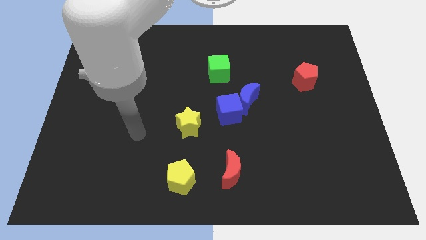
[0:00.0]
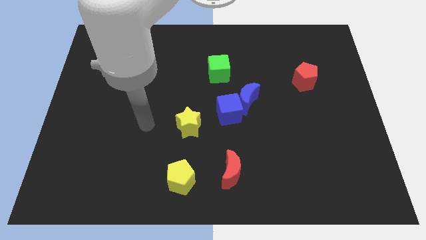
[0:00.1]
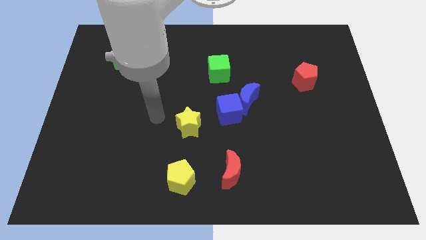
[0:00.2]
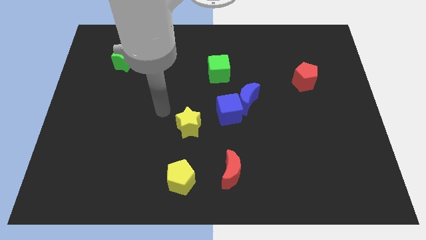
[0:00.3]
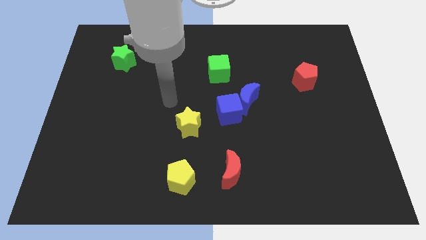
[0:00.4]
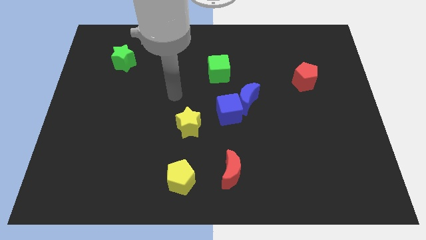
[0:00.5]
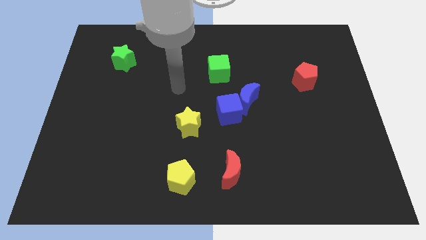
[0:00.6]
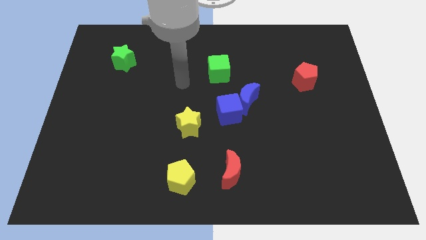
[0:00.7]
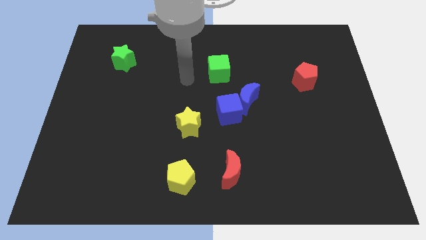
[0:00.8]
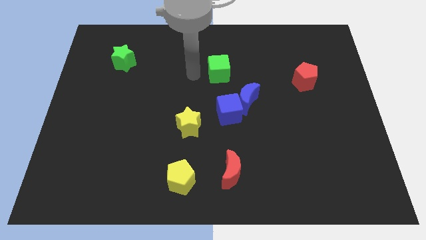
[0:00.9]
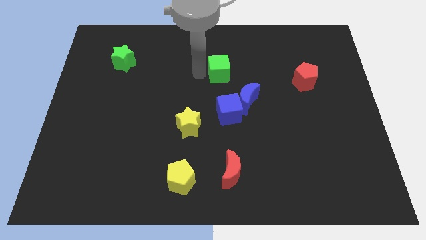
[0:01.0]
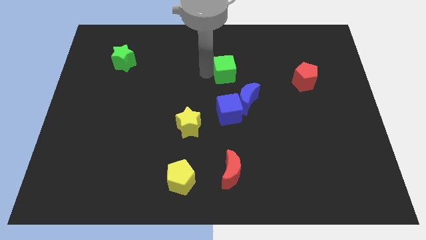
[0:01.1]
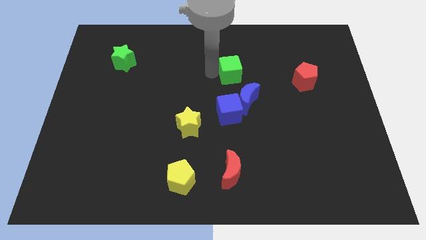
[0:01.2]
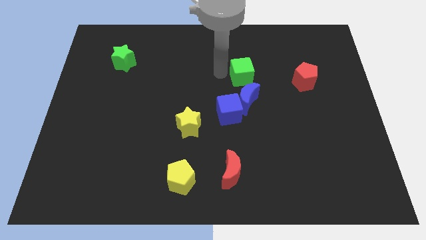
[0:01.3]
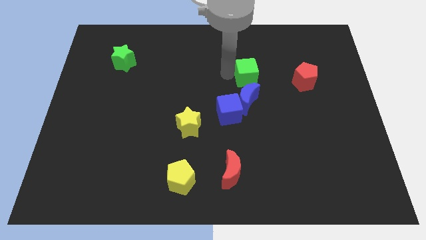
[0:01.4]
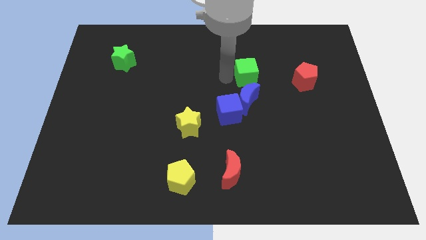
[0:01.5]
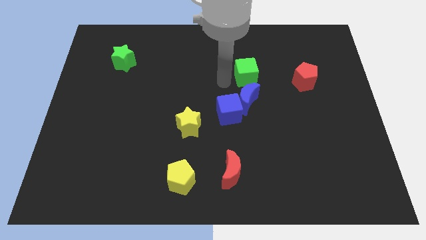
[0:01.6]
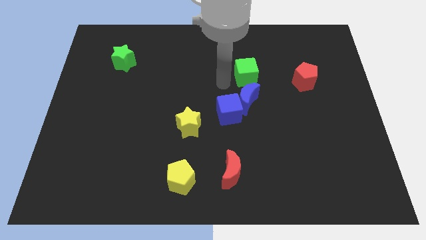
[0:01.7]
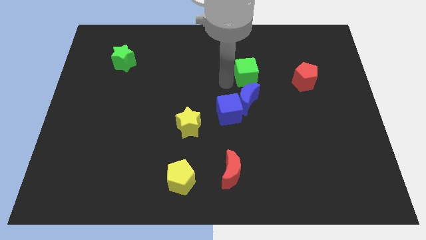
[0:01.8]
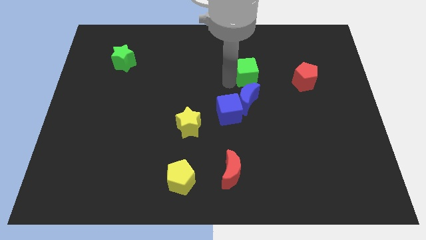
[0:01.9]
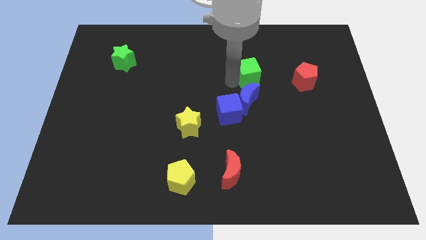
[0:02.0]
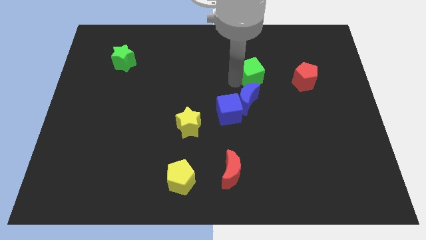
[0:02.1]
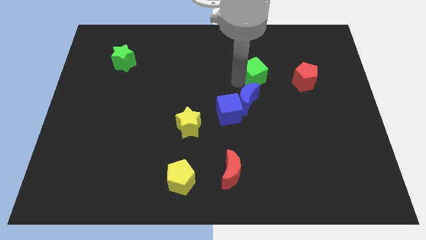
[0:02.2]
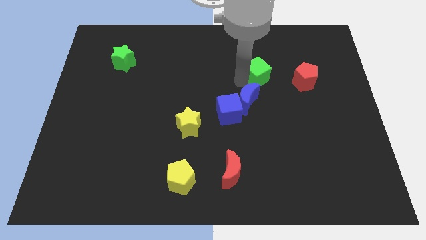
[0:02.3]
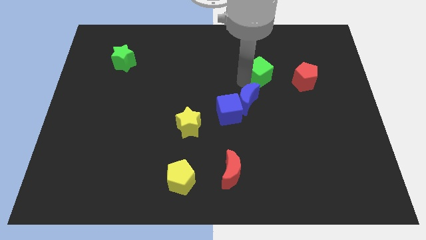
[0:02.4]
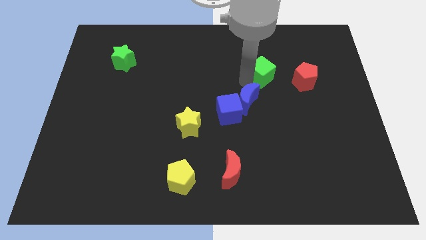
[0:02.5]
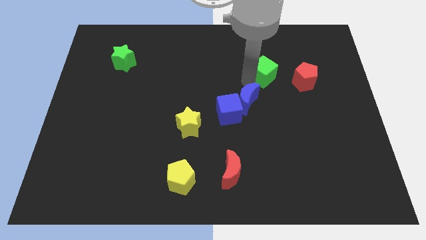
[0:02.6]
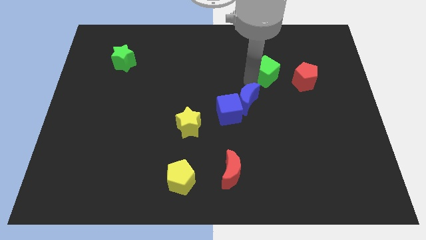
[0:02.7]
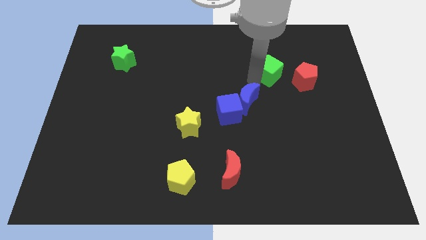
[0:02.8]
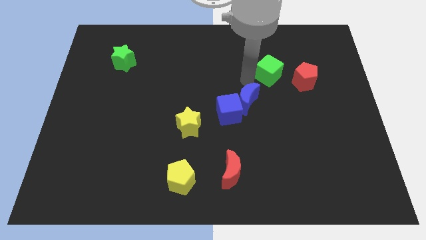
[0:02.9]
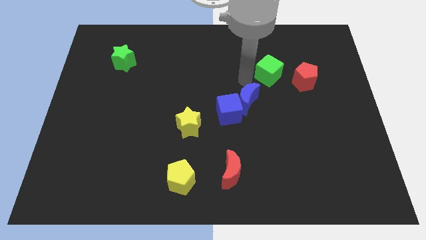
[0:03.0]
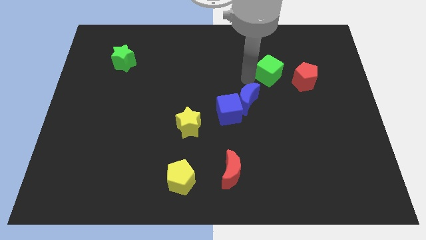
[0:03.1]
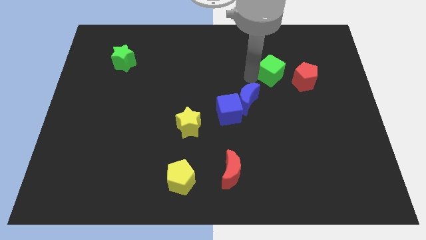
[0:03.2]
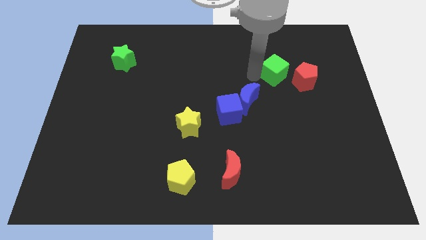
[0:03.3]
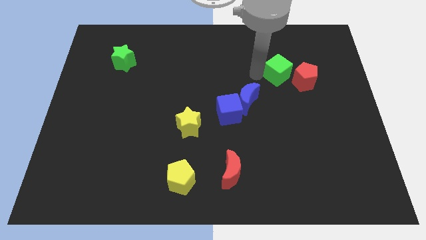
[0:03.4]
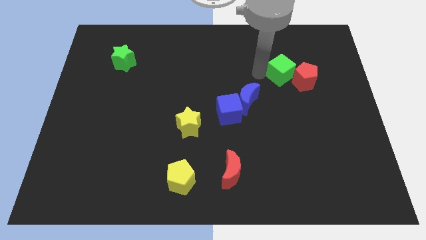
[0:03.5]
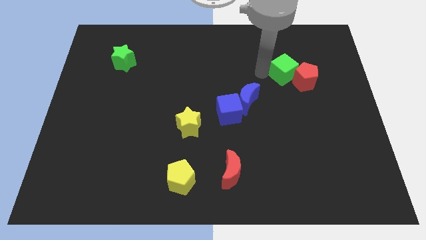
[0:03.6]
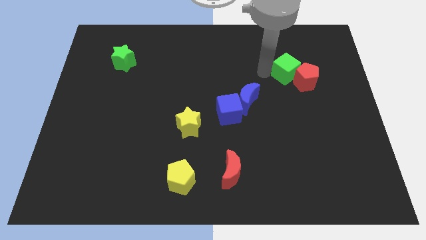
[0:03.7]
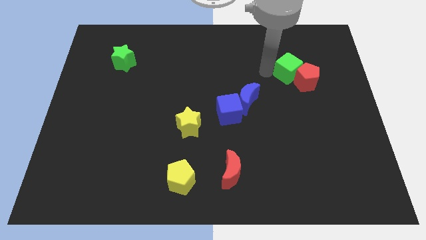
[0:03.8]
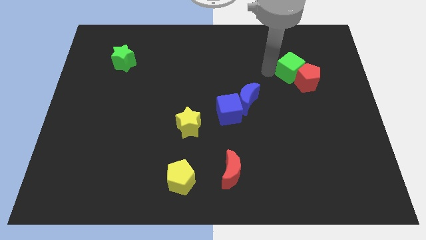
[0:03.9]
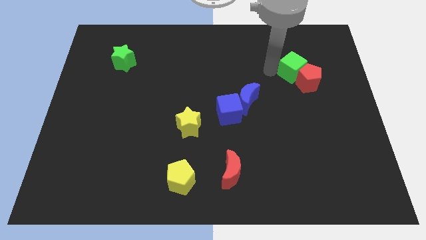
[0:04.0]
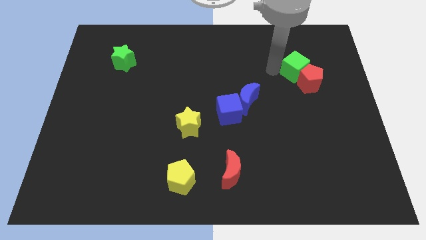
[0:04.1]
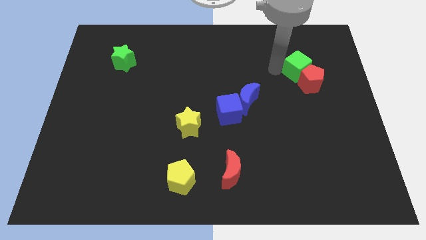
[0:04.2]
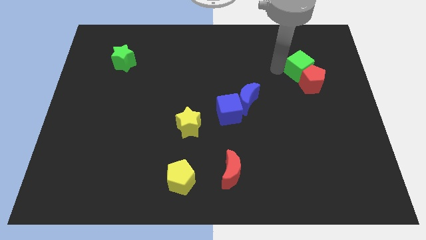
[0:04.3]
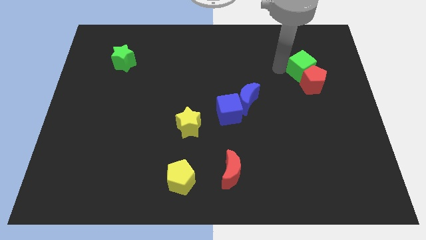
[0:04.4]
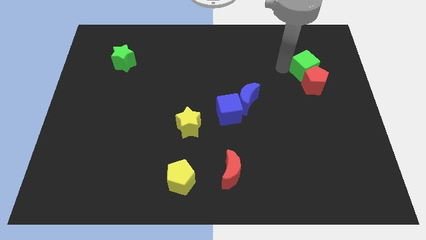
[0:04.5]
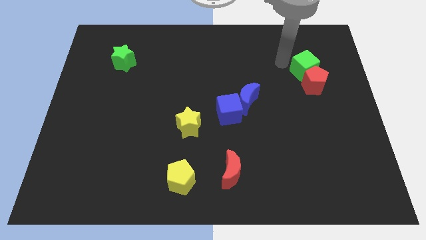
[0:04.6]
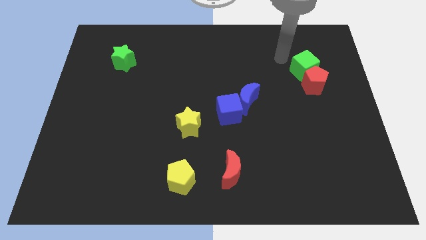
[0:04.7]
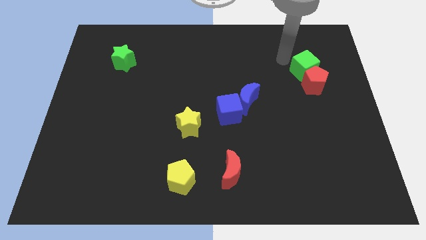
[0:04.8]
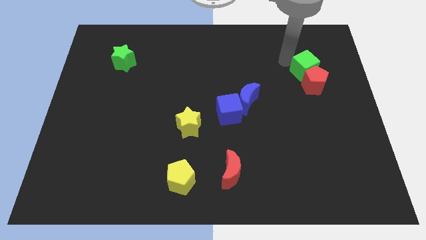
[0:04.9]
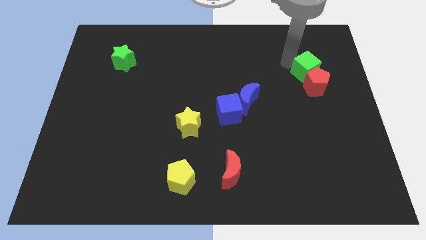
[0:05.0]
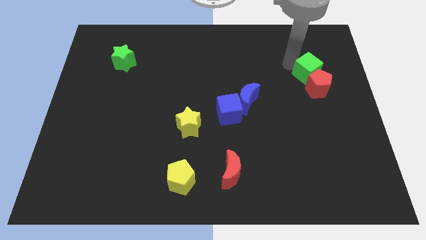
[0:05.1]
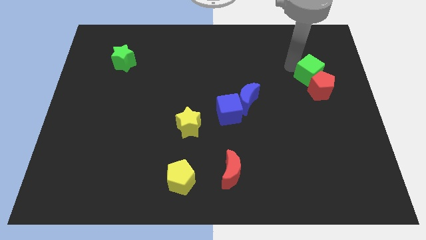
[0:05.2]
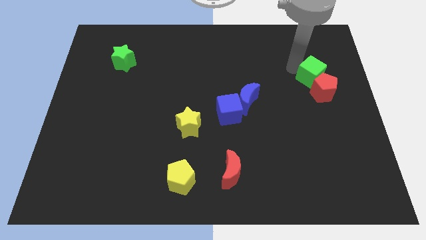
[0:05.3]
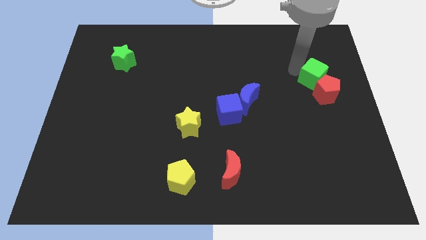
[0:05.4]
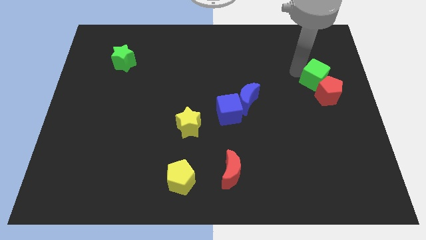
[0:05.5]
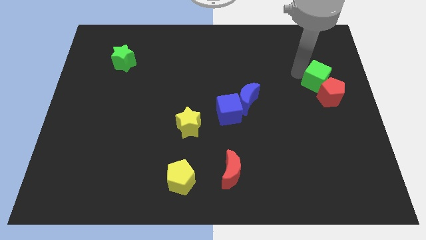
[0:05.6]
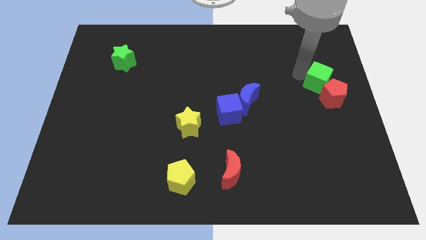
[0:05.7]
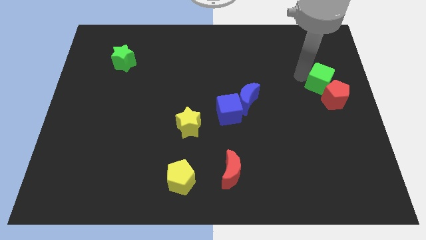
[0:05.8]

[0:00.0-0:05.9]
slide the green cube to the right side
